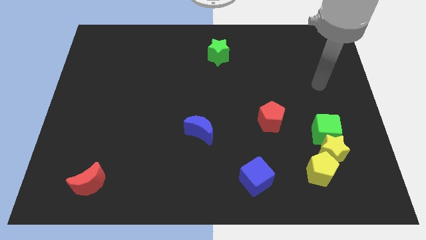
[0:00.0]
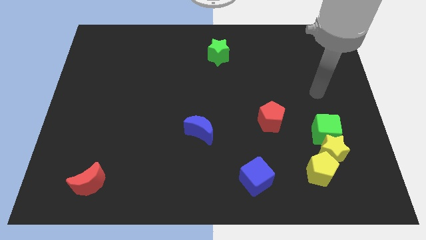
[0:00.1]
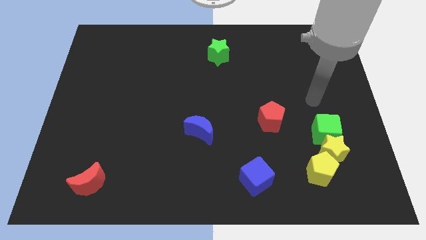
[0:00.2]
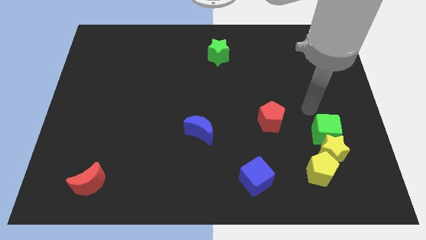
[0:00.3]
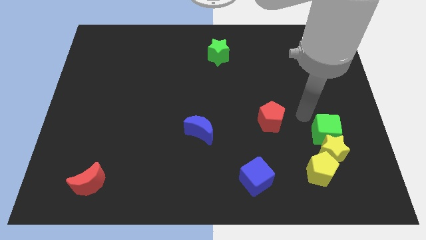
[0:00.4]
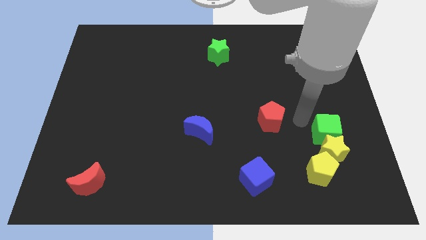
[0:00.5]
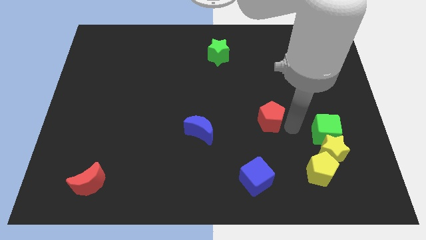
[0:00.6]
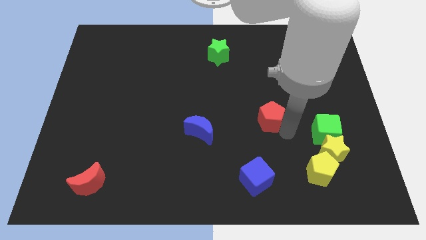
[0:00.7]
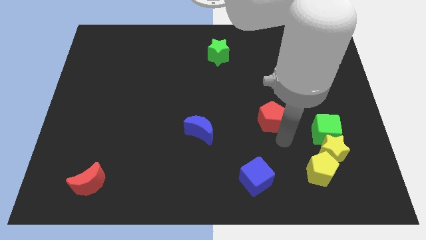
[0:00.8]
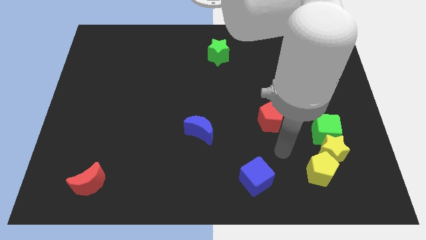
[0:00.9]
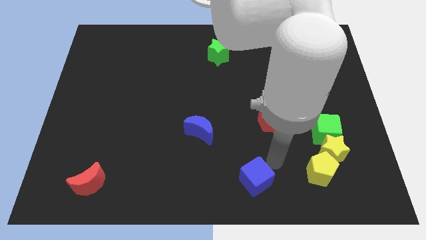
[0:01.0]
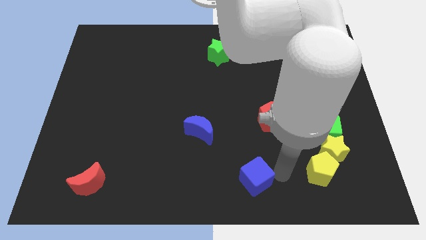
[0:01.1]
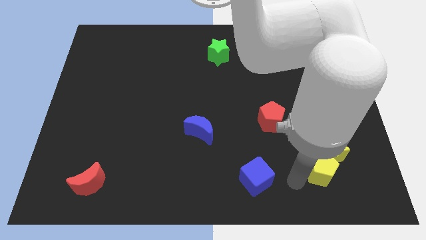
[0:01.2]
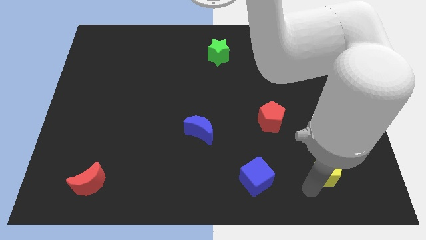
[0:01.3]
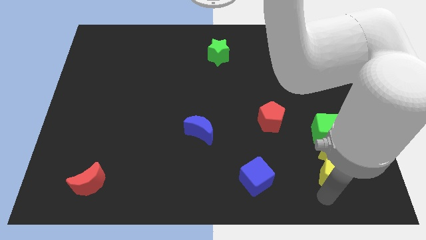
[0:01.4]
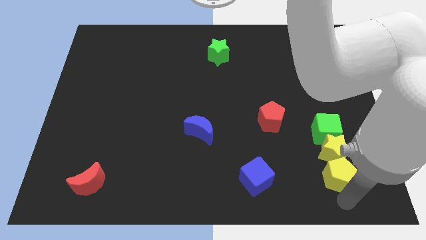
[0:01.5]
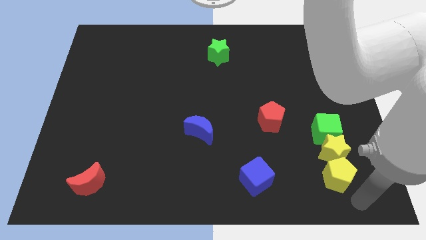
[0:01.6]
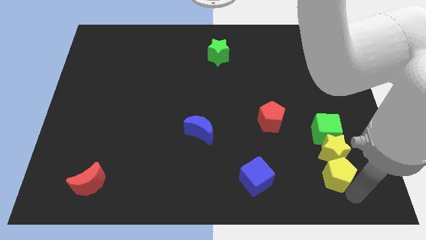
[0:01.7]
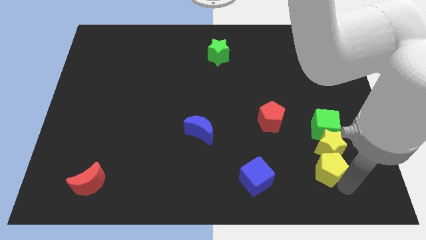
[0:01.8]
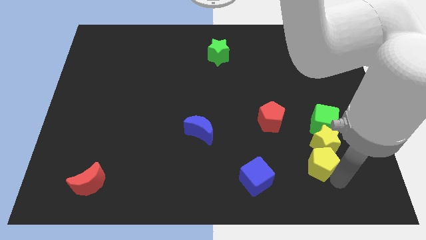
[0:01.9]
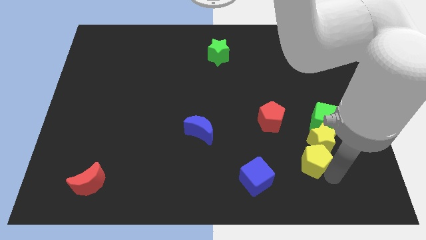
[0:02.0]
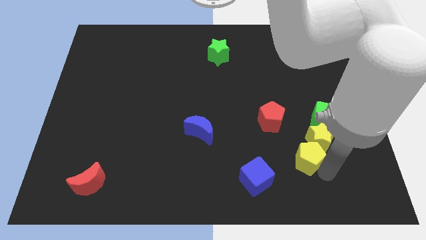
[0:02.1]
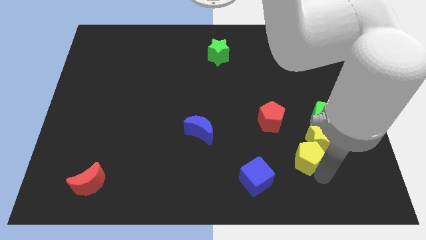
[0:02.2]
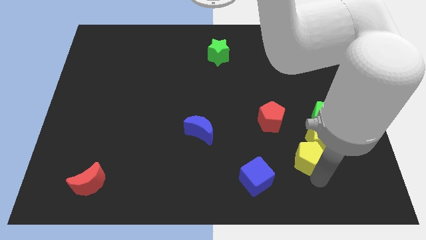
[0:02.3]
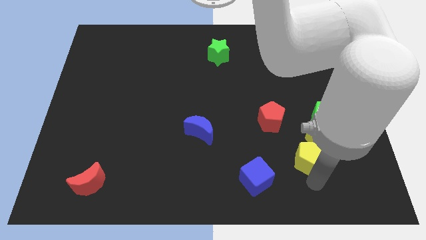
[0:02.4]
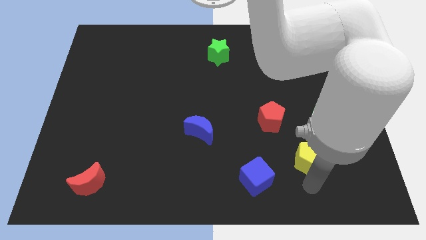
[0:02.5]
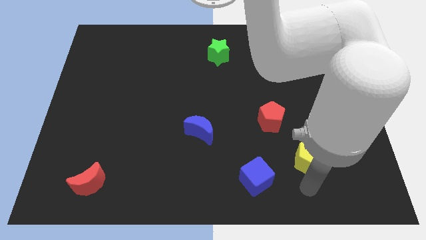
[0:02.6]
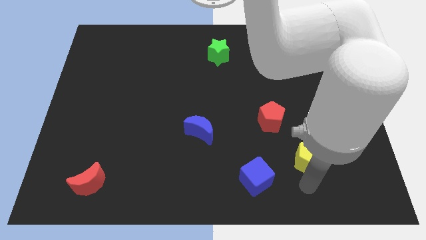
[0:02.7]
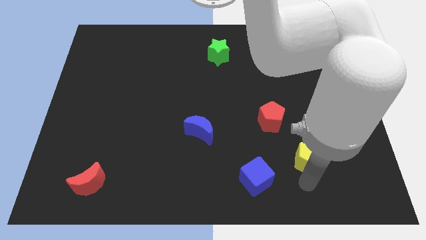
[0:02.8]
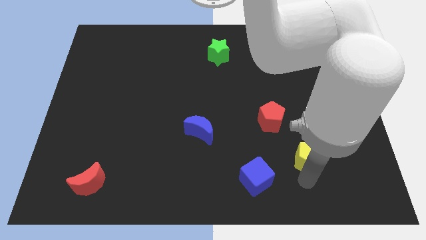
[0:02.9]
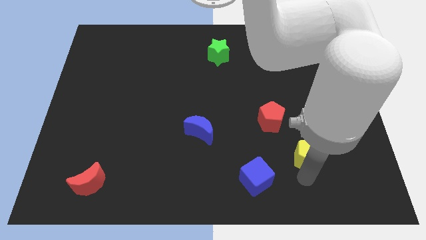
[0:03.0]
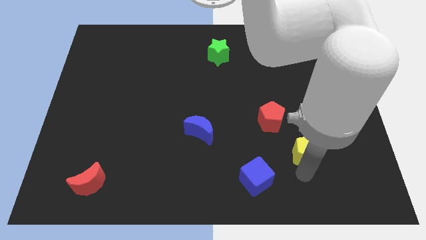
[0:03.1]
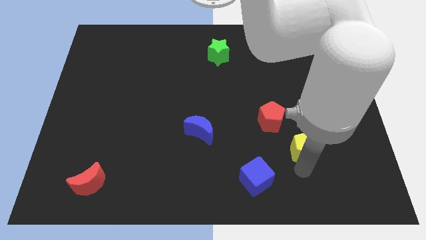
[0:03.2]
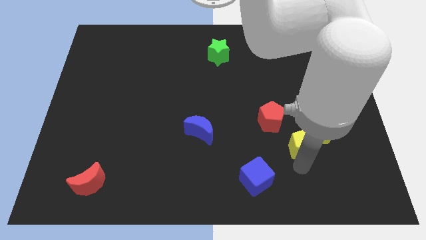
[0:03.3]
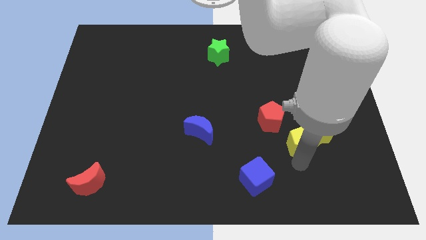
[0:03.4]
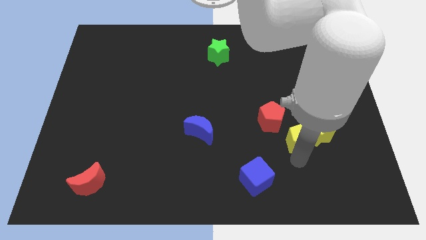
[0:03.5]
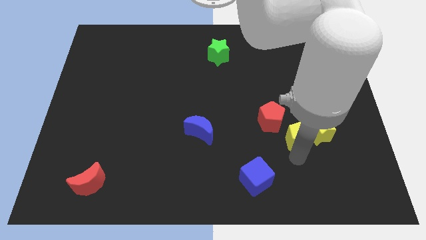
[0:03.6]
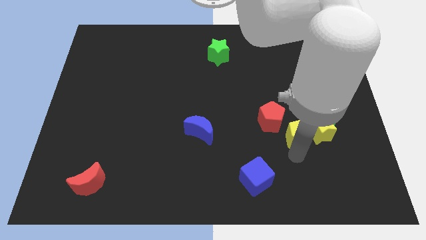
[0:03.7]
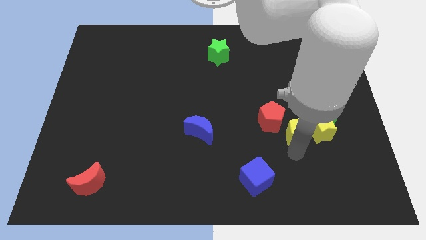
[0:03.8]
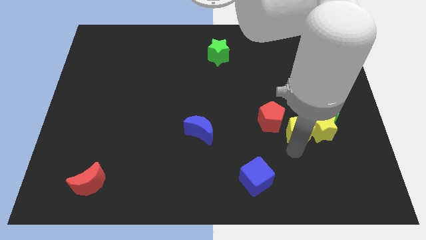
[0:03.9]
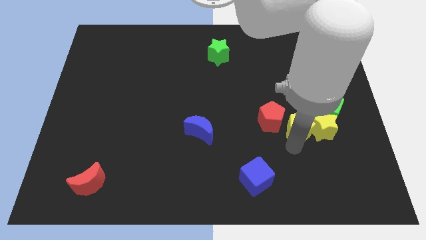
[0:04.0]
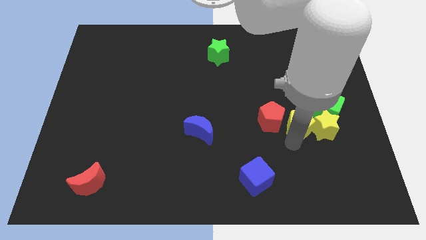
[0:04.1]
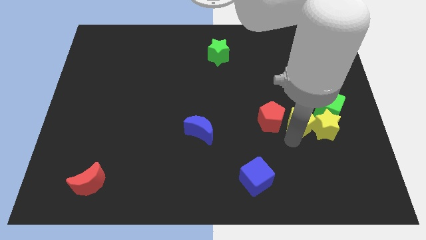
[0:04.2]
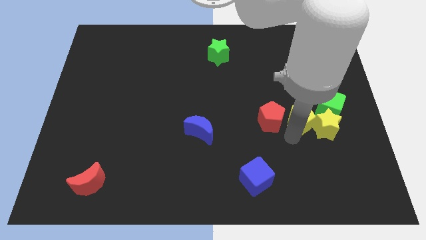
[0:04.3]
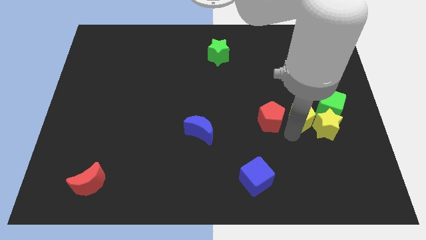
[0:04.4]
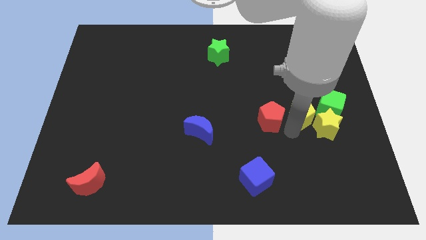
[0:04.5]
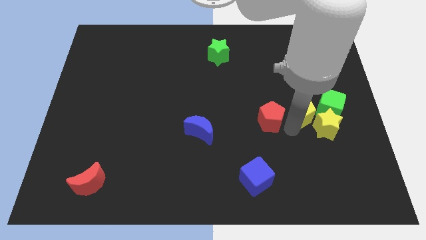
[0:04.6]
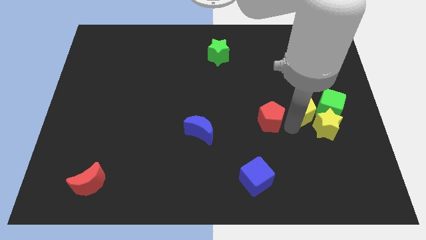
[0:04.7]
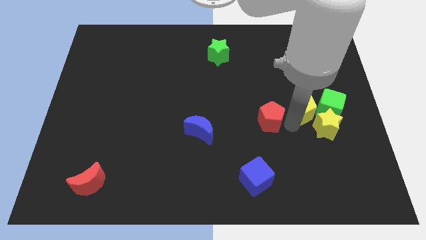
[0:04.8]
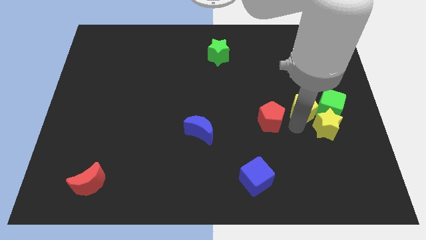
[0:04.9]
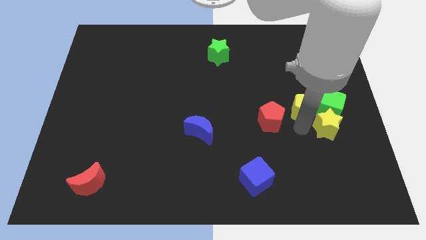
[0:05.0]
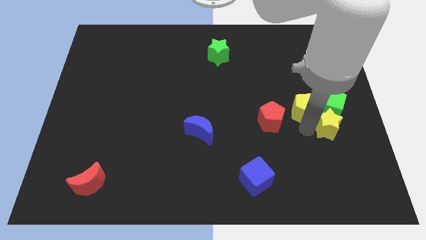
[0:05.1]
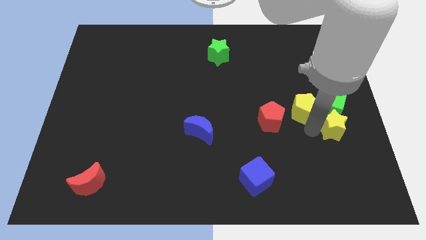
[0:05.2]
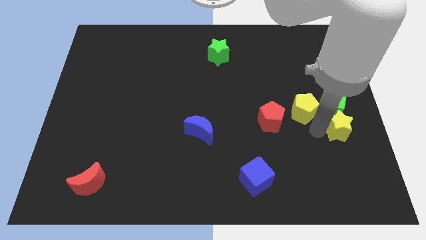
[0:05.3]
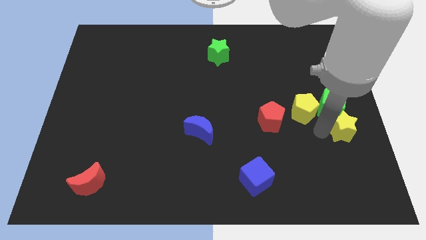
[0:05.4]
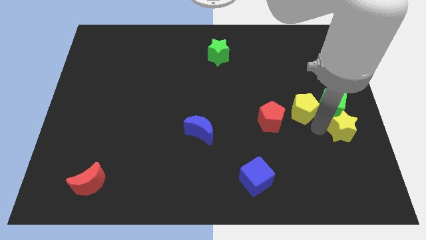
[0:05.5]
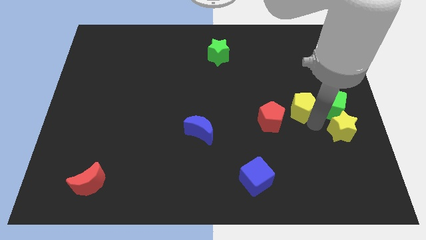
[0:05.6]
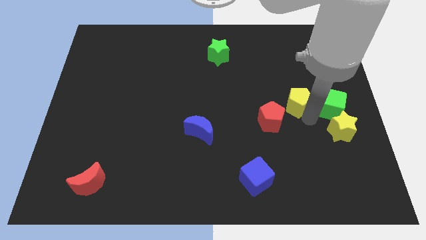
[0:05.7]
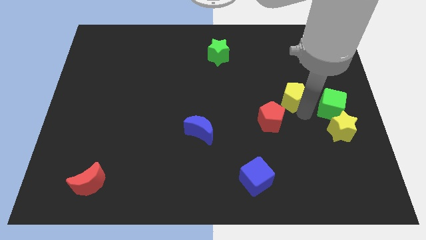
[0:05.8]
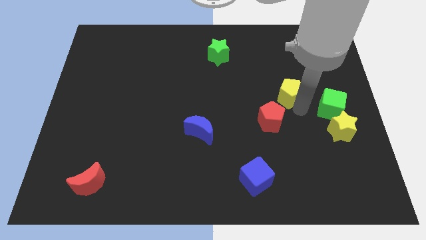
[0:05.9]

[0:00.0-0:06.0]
push the yellow pentagon upwards

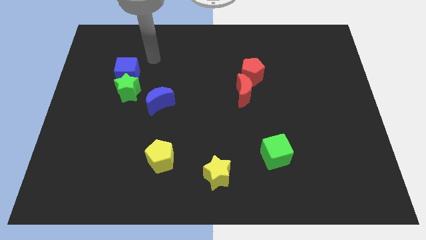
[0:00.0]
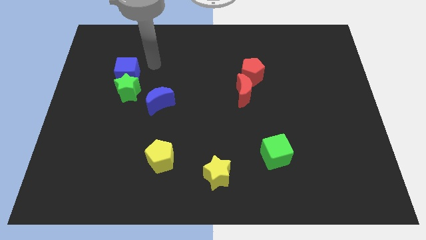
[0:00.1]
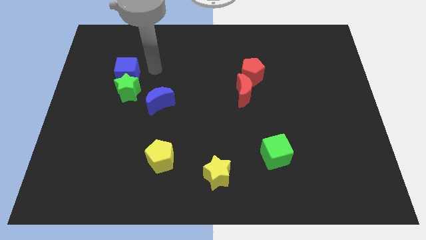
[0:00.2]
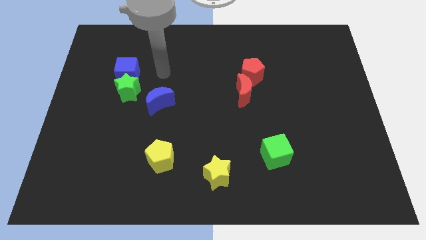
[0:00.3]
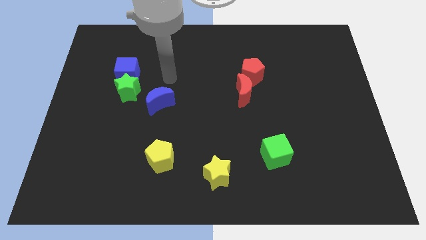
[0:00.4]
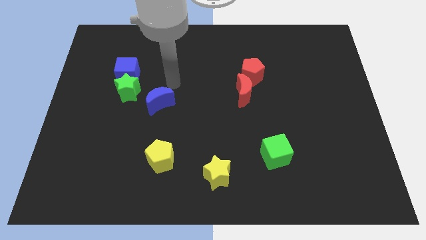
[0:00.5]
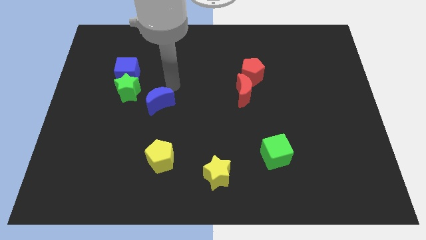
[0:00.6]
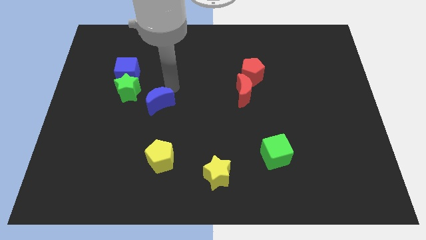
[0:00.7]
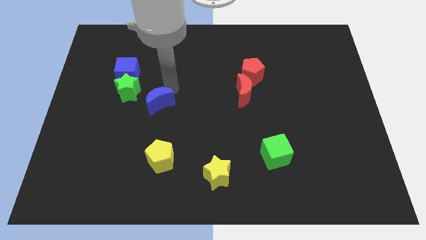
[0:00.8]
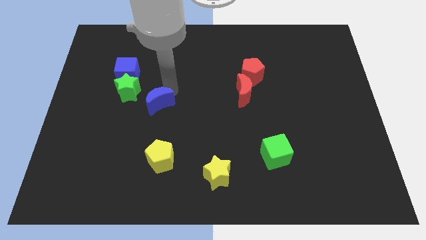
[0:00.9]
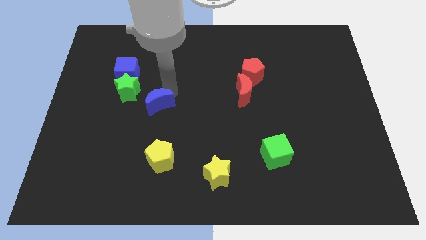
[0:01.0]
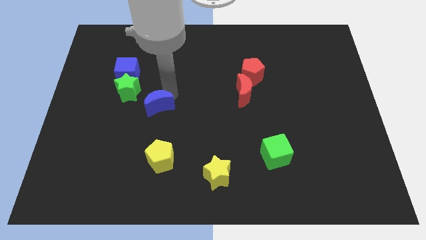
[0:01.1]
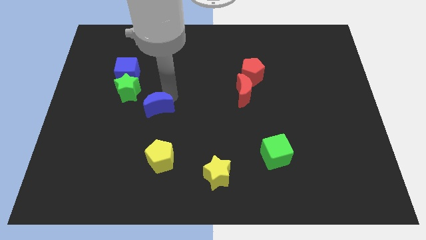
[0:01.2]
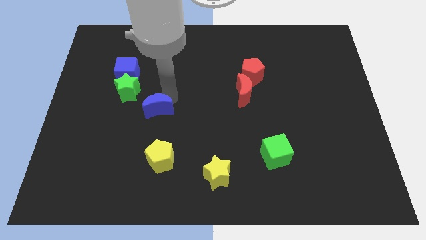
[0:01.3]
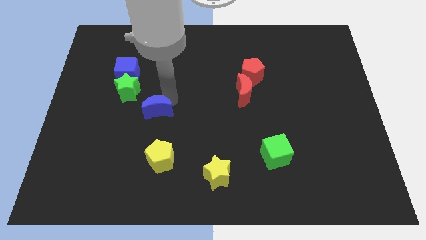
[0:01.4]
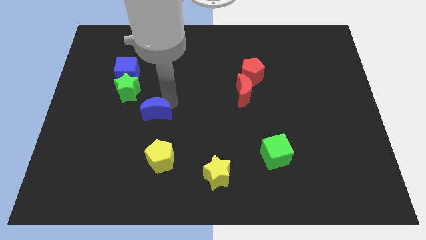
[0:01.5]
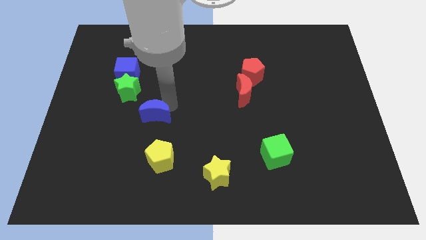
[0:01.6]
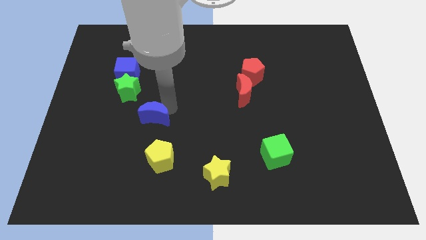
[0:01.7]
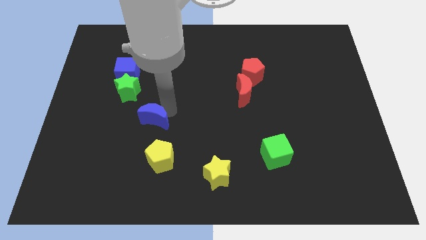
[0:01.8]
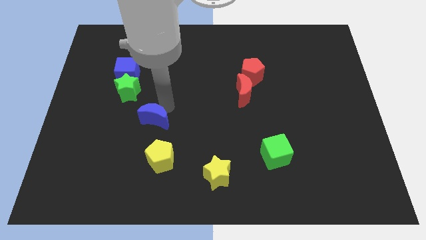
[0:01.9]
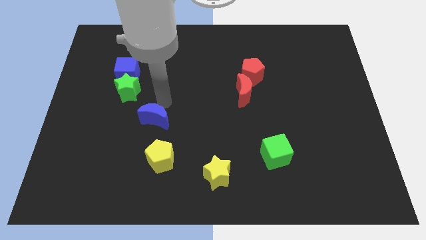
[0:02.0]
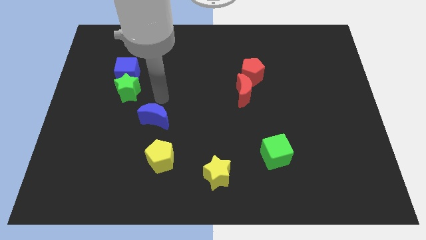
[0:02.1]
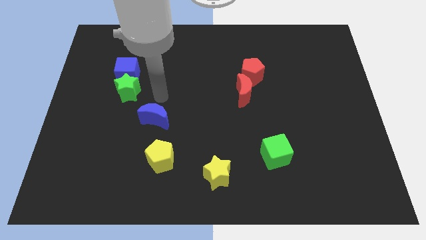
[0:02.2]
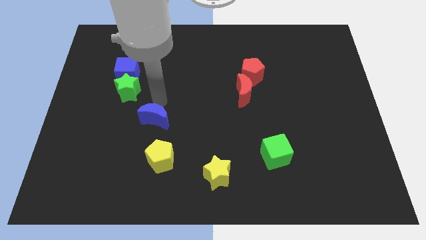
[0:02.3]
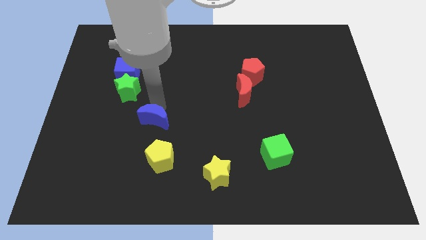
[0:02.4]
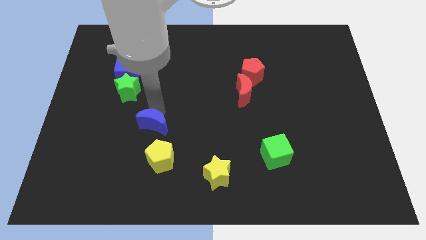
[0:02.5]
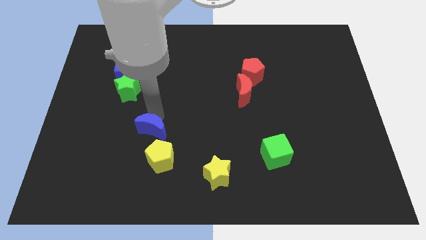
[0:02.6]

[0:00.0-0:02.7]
push the blue moon a bit downwards
